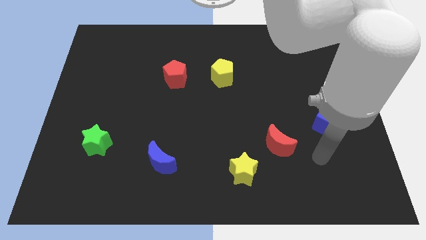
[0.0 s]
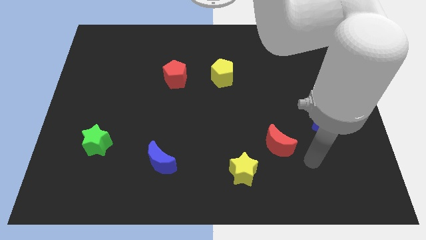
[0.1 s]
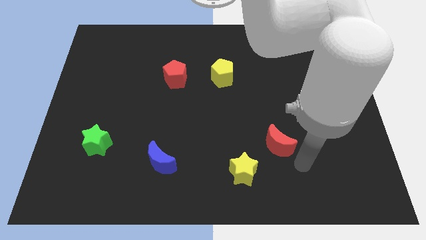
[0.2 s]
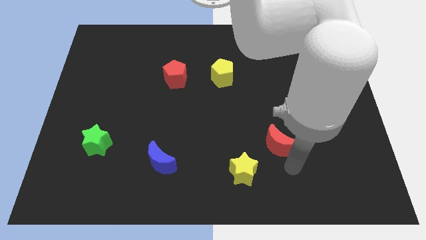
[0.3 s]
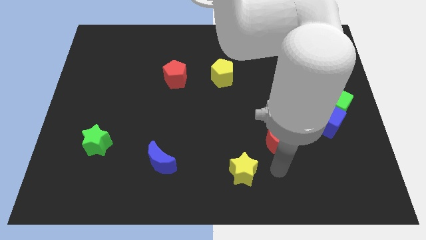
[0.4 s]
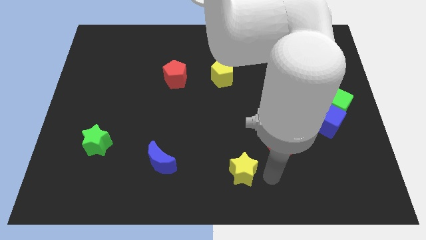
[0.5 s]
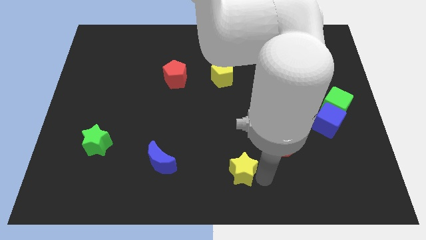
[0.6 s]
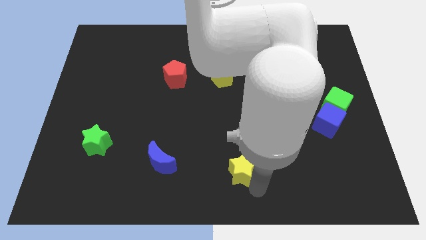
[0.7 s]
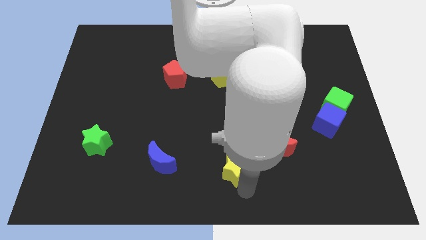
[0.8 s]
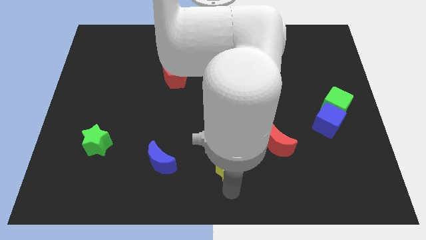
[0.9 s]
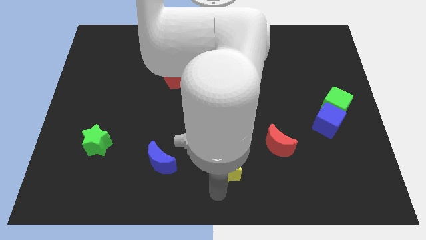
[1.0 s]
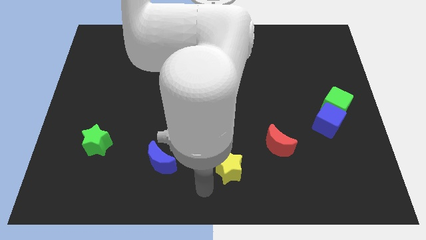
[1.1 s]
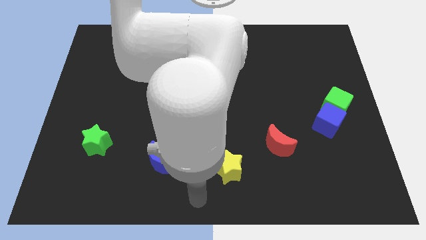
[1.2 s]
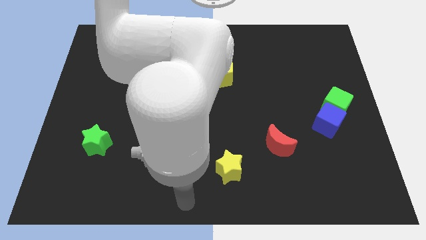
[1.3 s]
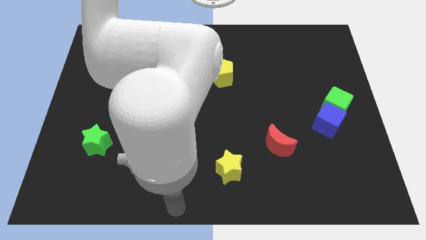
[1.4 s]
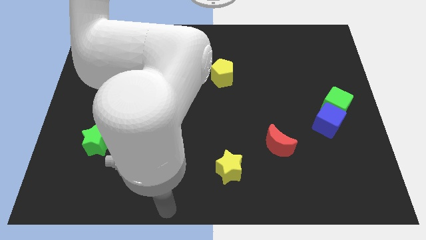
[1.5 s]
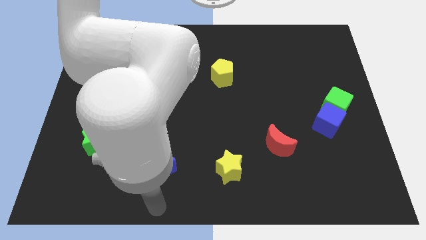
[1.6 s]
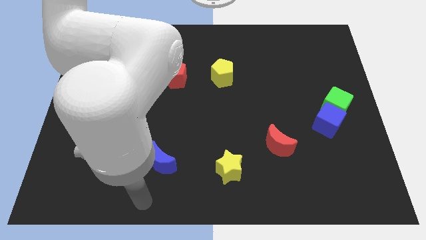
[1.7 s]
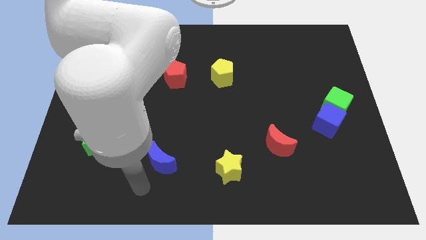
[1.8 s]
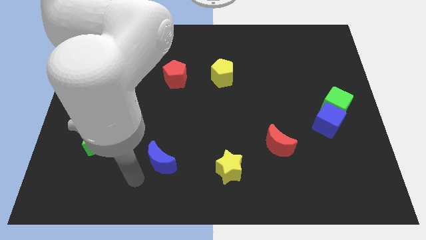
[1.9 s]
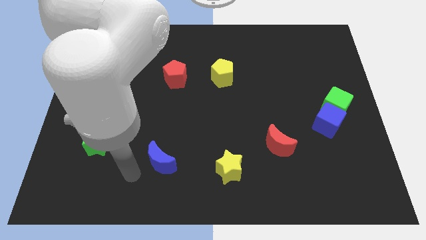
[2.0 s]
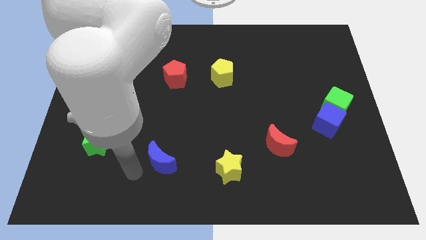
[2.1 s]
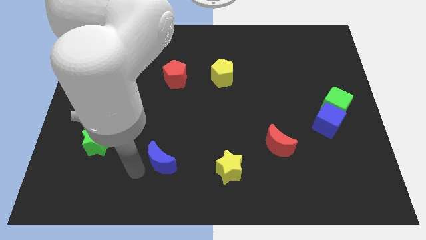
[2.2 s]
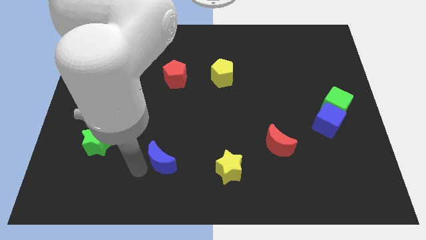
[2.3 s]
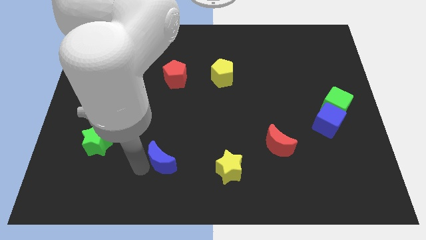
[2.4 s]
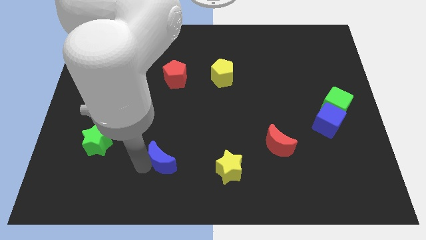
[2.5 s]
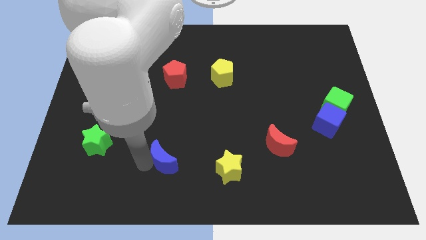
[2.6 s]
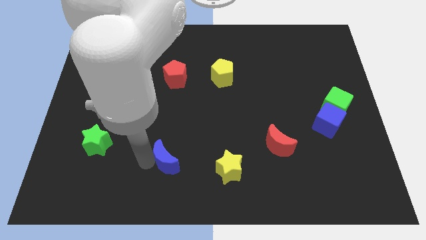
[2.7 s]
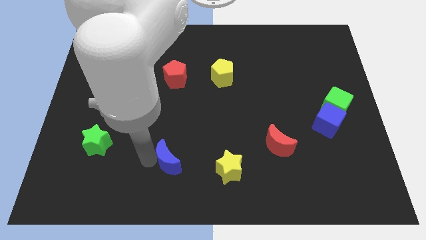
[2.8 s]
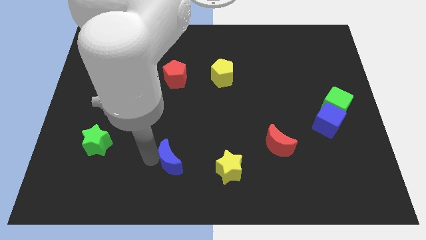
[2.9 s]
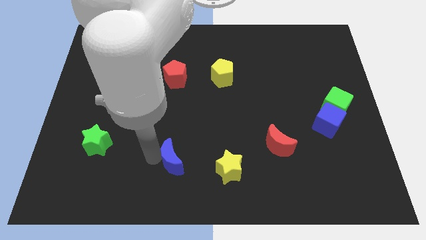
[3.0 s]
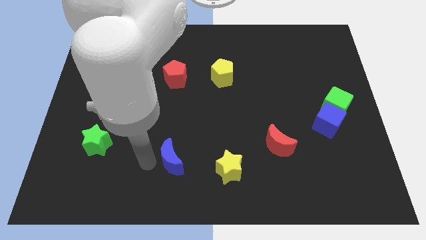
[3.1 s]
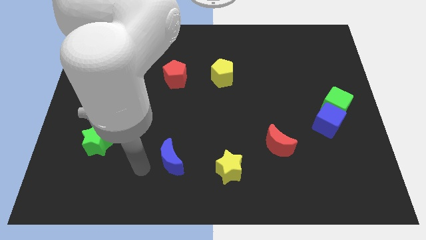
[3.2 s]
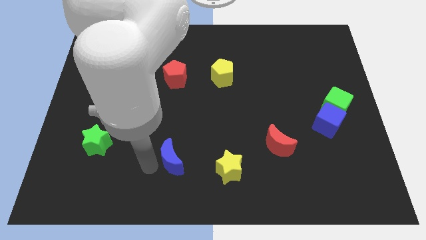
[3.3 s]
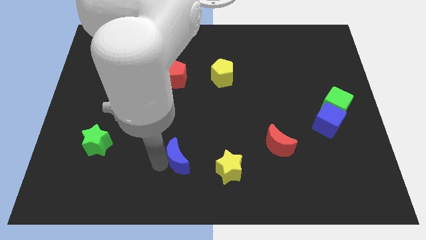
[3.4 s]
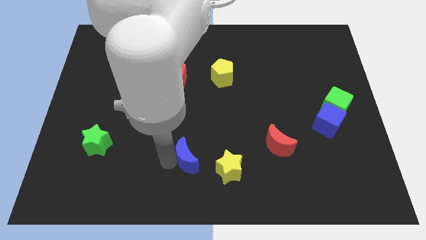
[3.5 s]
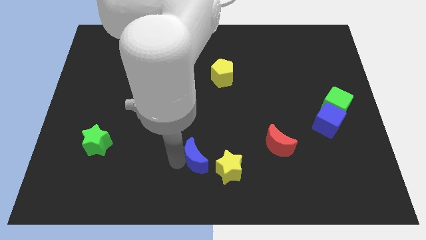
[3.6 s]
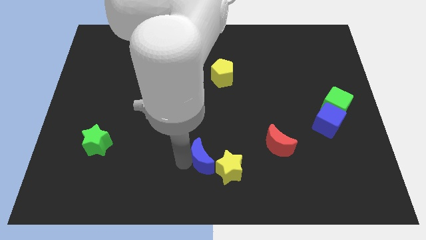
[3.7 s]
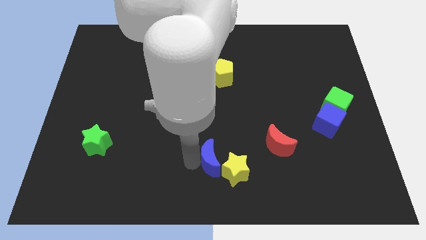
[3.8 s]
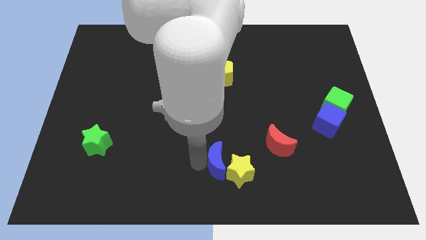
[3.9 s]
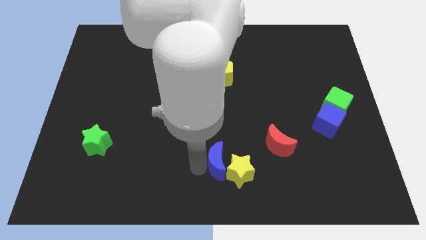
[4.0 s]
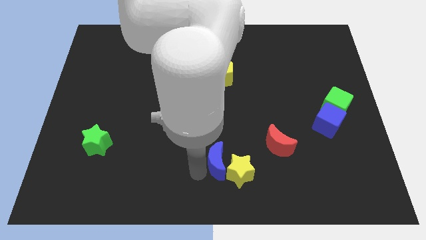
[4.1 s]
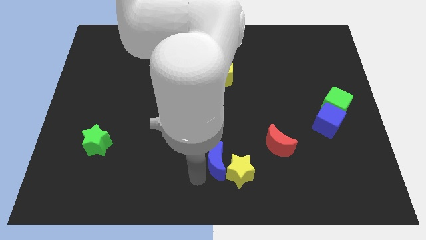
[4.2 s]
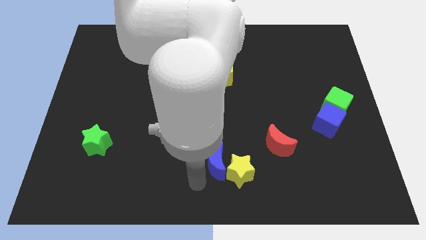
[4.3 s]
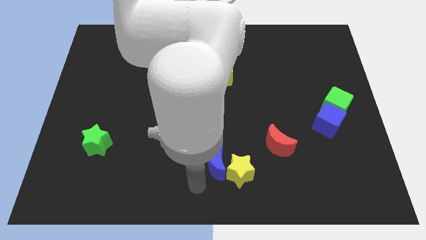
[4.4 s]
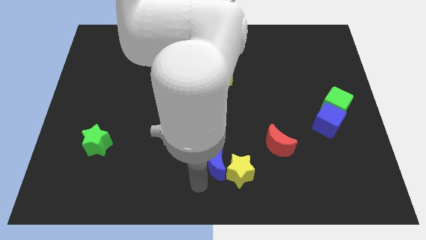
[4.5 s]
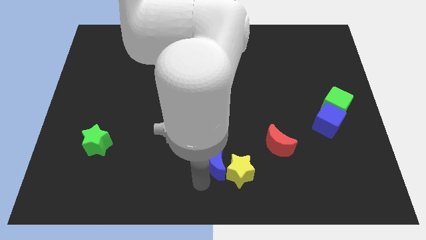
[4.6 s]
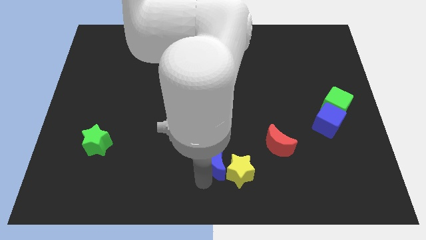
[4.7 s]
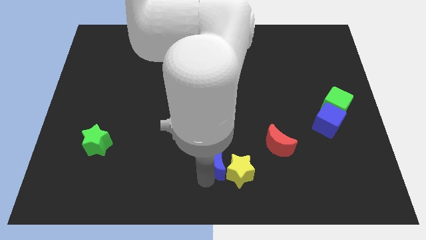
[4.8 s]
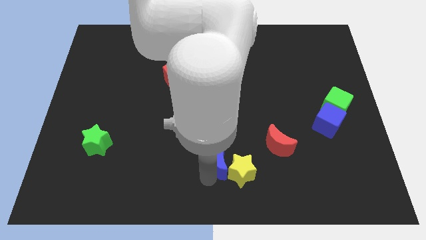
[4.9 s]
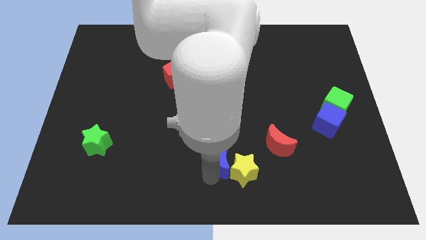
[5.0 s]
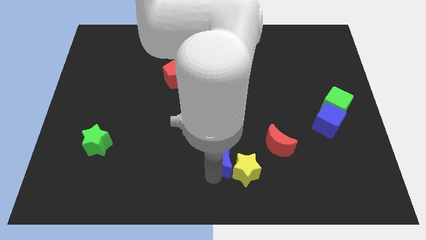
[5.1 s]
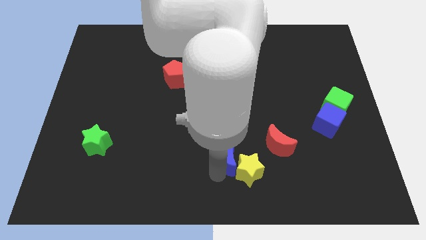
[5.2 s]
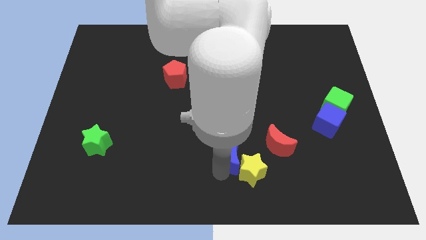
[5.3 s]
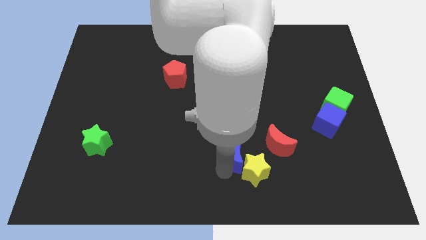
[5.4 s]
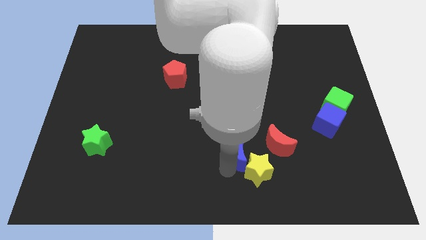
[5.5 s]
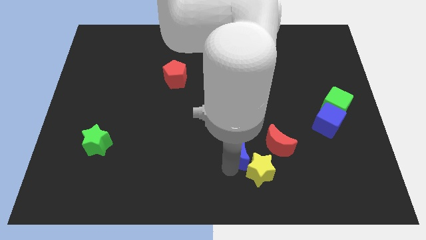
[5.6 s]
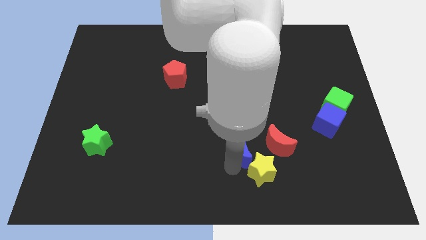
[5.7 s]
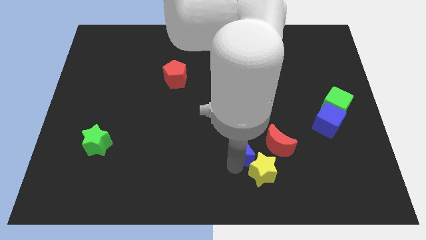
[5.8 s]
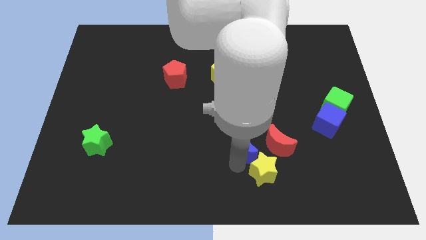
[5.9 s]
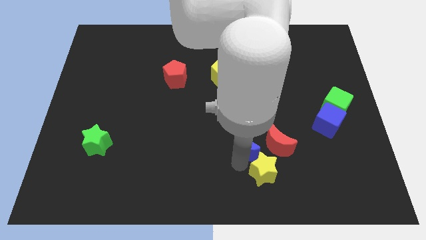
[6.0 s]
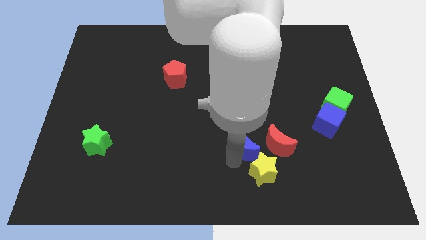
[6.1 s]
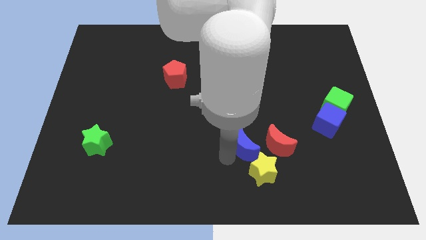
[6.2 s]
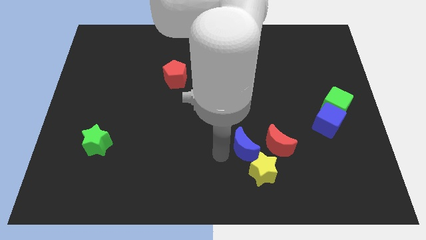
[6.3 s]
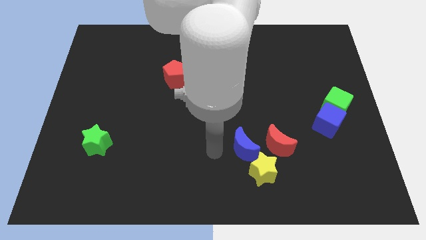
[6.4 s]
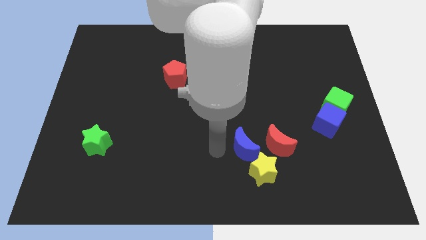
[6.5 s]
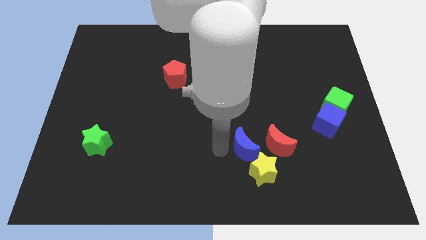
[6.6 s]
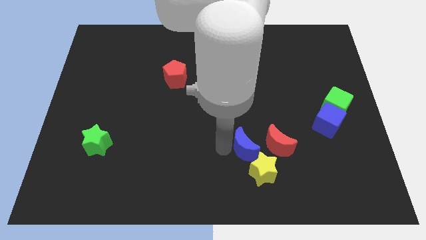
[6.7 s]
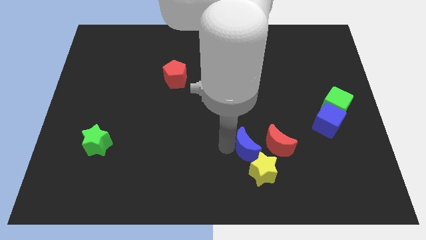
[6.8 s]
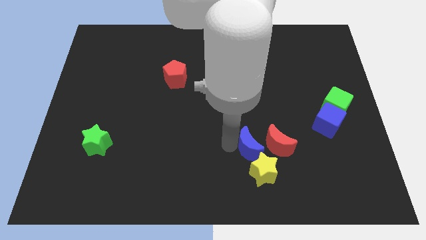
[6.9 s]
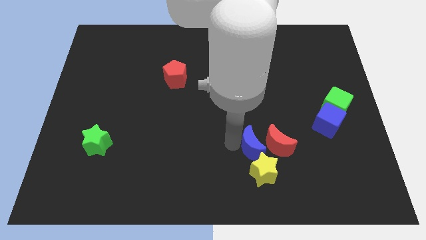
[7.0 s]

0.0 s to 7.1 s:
move the blue moon to the red moon
